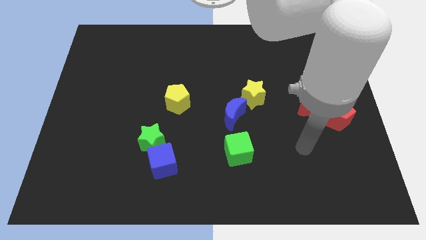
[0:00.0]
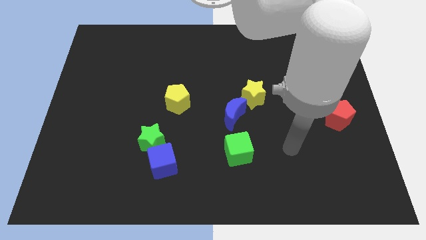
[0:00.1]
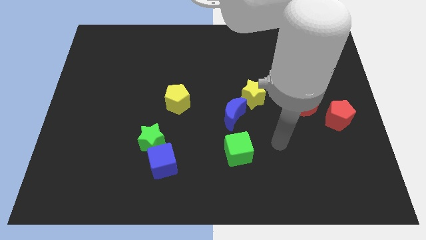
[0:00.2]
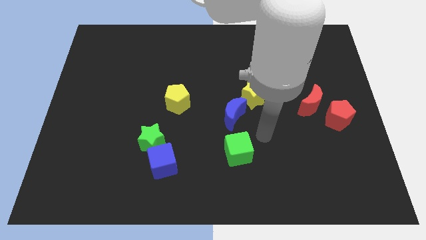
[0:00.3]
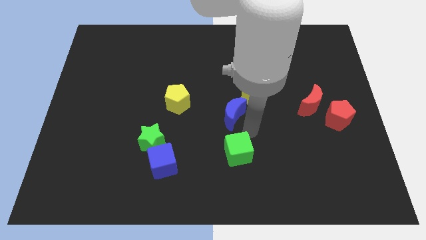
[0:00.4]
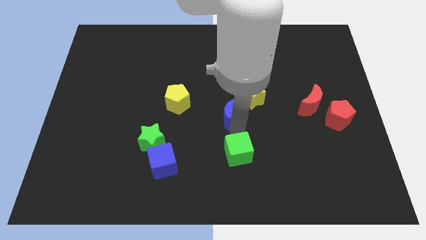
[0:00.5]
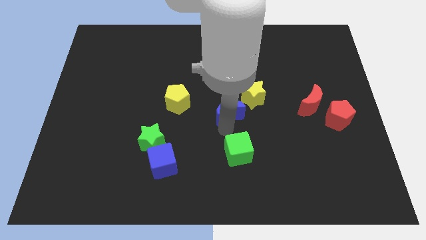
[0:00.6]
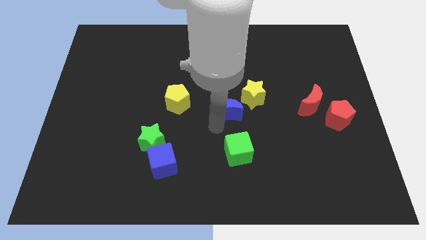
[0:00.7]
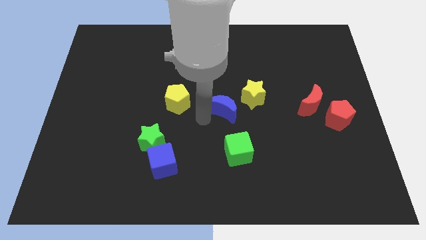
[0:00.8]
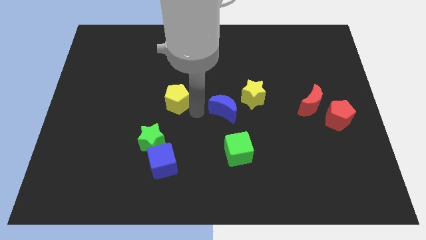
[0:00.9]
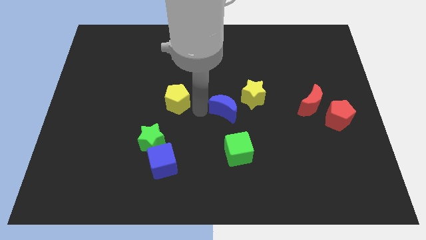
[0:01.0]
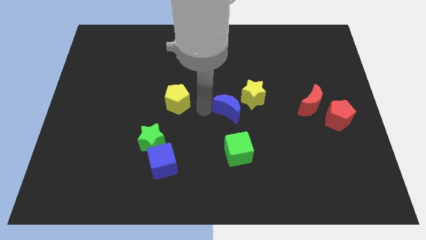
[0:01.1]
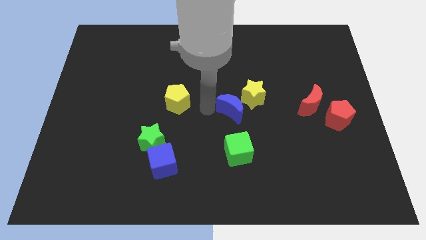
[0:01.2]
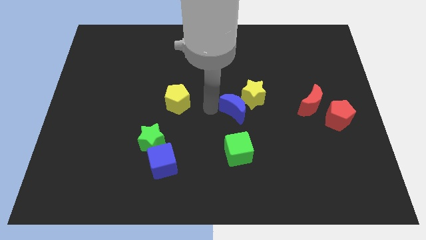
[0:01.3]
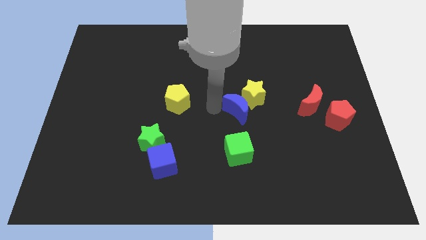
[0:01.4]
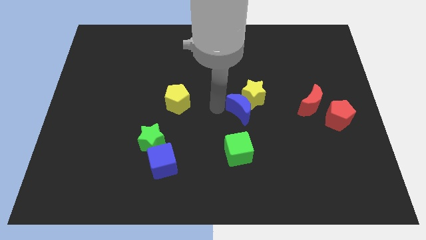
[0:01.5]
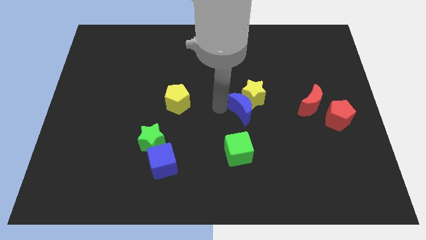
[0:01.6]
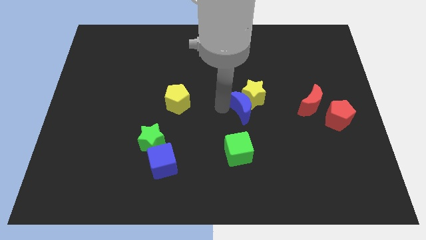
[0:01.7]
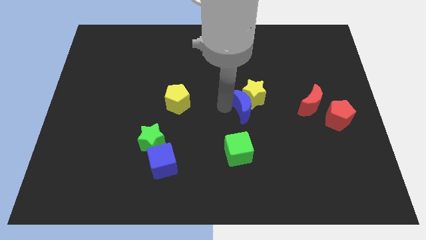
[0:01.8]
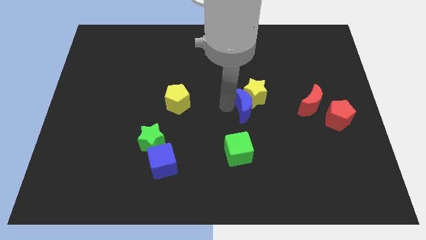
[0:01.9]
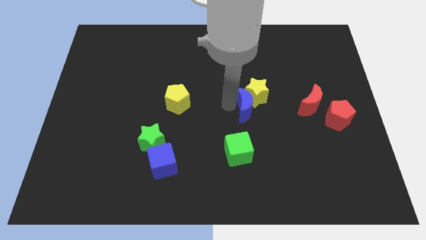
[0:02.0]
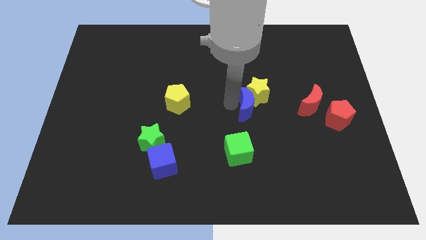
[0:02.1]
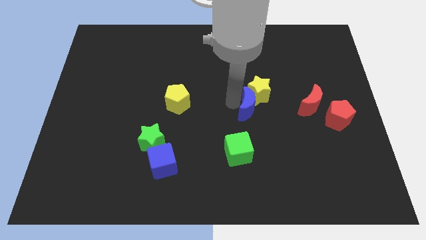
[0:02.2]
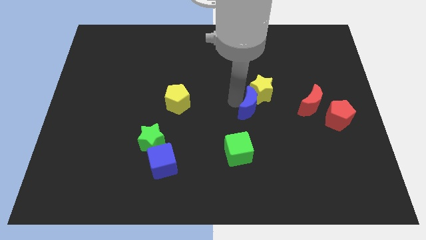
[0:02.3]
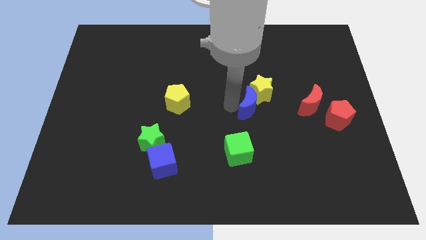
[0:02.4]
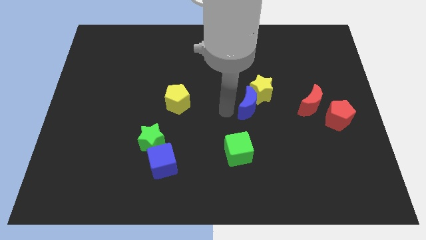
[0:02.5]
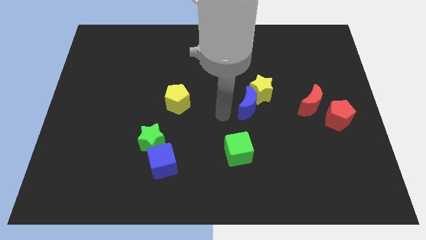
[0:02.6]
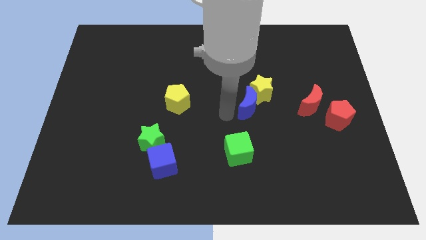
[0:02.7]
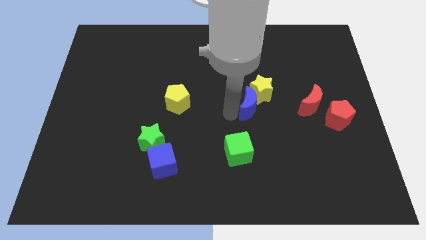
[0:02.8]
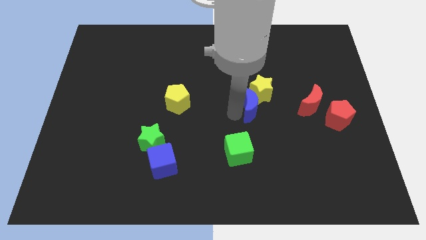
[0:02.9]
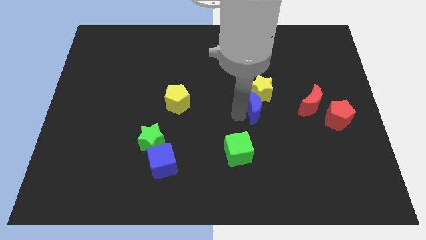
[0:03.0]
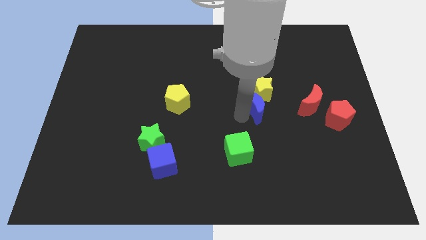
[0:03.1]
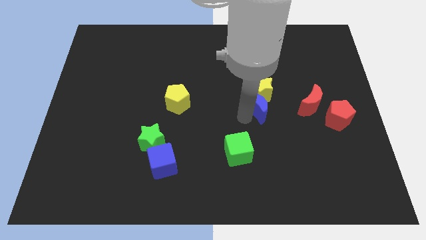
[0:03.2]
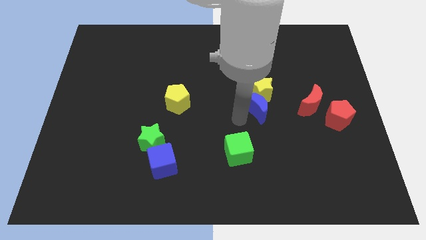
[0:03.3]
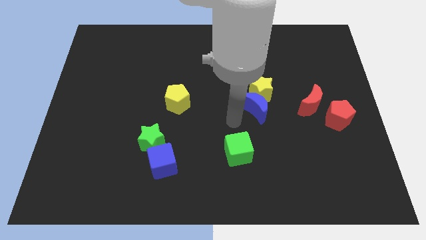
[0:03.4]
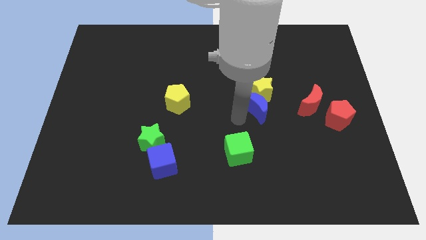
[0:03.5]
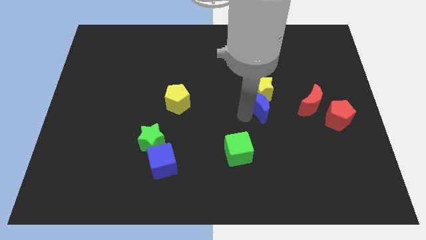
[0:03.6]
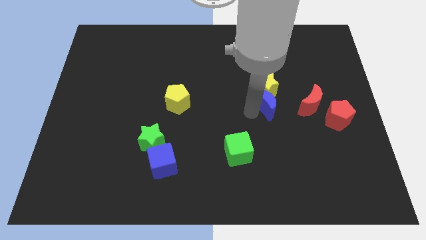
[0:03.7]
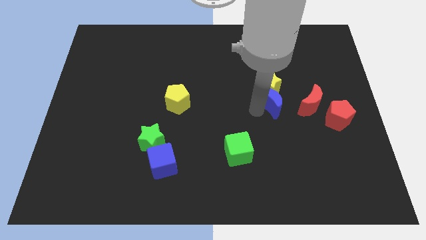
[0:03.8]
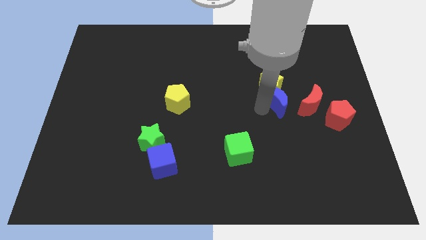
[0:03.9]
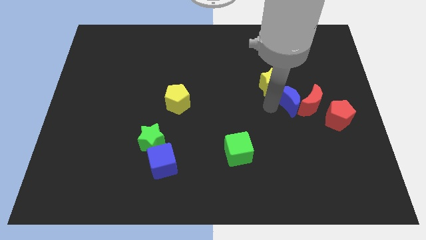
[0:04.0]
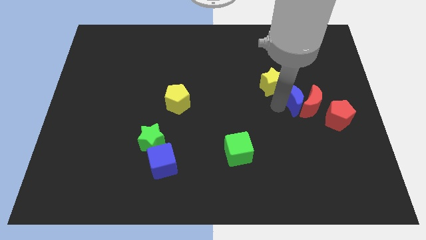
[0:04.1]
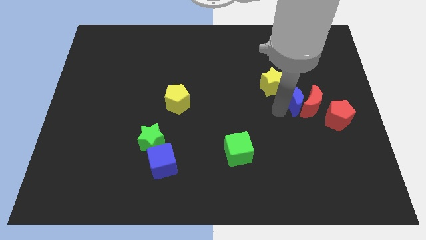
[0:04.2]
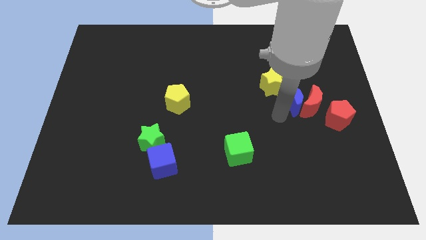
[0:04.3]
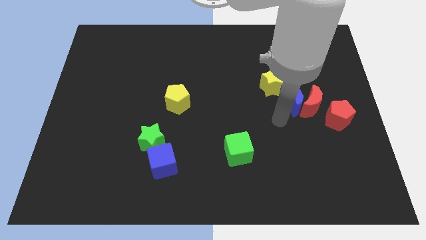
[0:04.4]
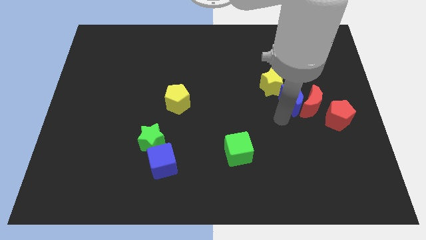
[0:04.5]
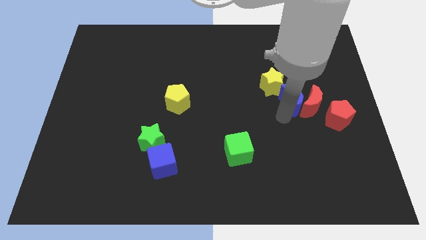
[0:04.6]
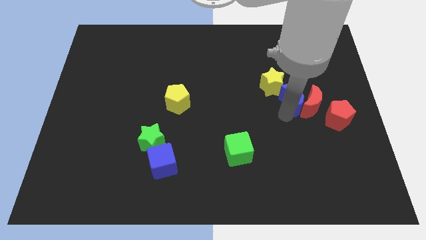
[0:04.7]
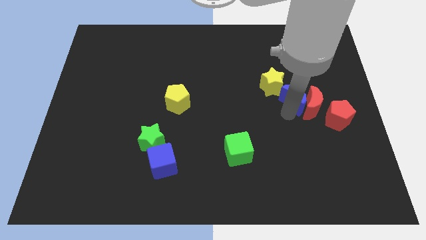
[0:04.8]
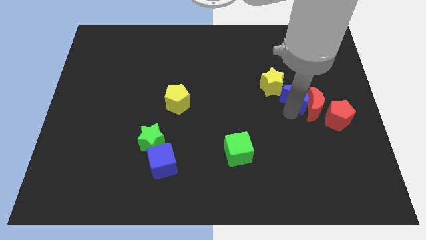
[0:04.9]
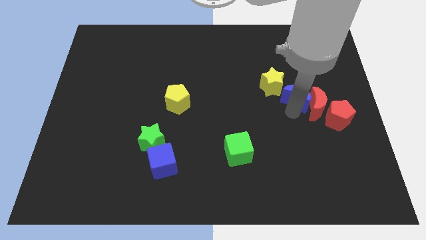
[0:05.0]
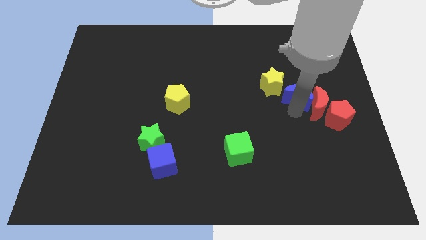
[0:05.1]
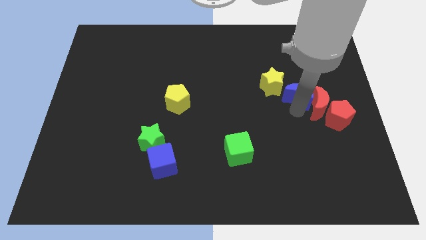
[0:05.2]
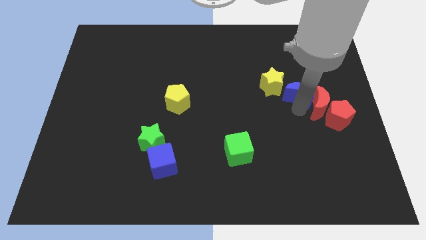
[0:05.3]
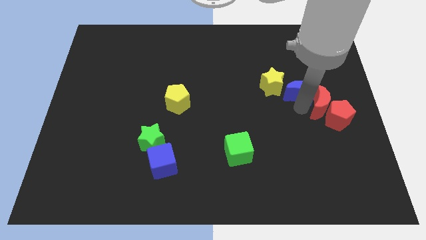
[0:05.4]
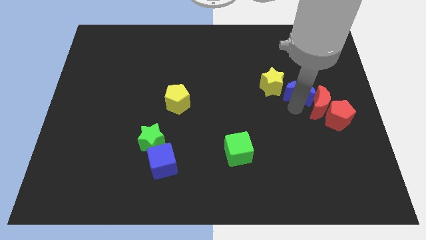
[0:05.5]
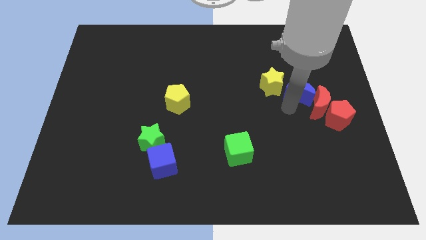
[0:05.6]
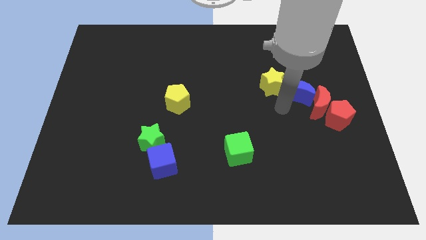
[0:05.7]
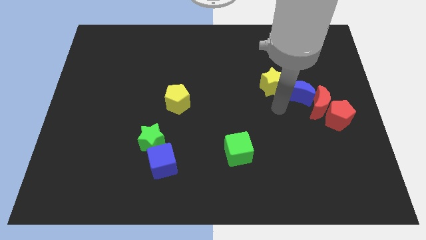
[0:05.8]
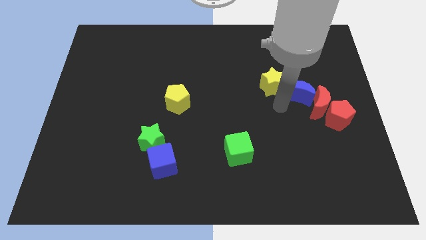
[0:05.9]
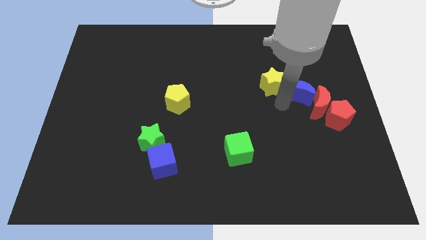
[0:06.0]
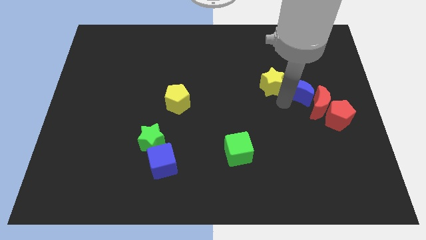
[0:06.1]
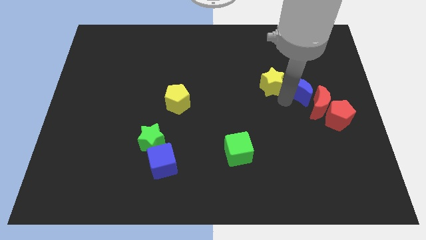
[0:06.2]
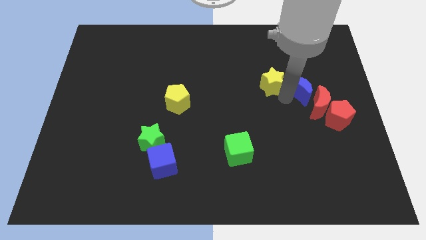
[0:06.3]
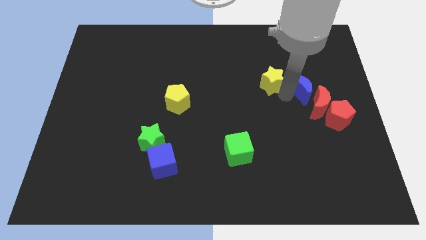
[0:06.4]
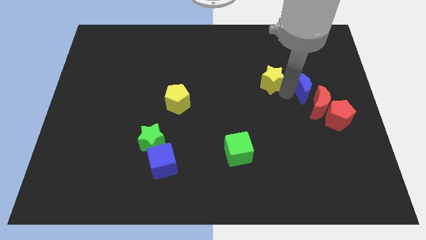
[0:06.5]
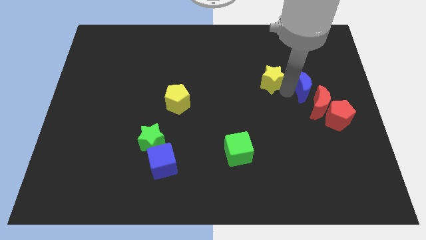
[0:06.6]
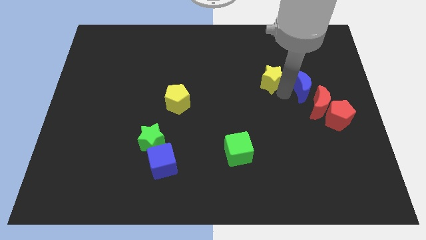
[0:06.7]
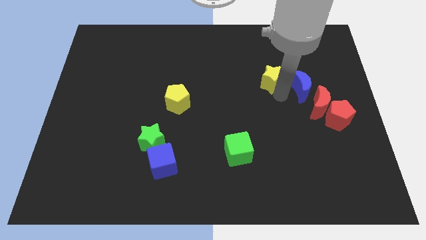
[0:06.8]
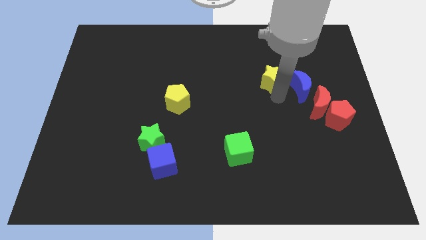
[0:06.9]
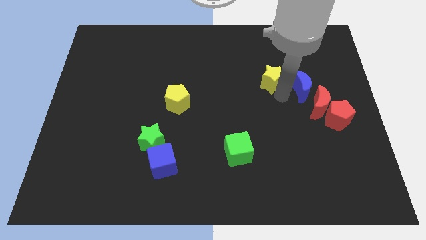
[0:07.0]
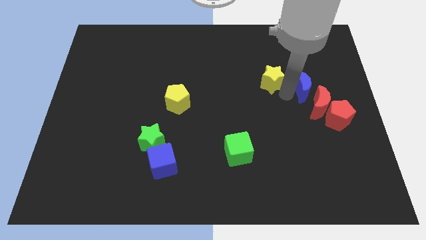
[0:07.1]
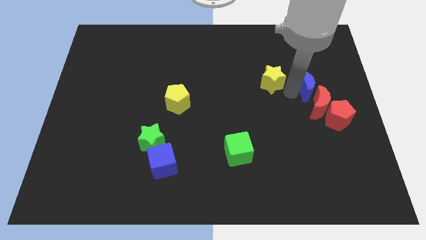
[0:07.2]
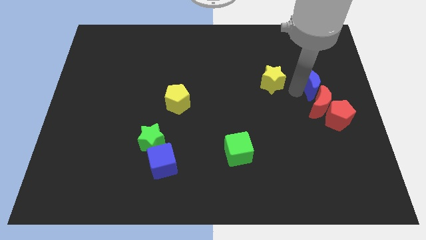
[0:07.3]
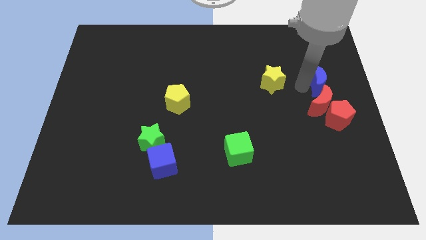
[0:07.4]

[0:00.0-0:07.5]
slide the blue moon to the center right

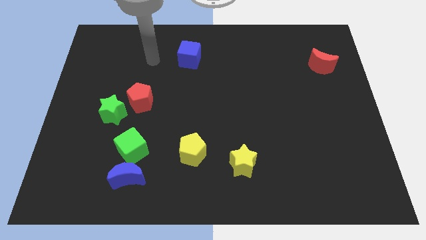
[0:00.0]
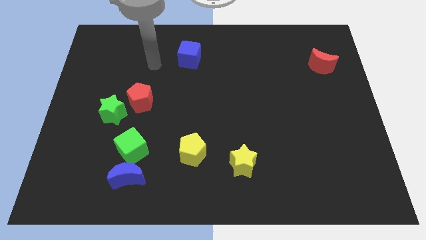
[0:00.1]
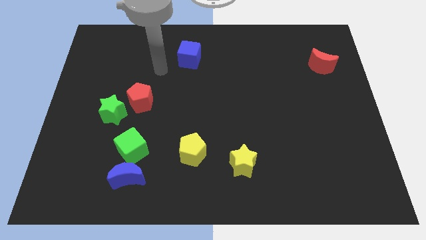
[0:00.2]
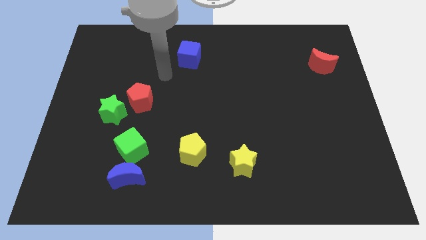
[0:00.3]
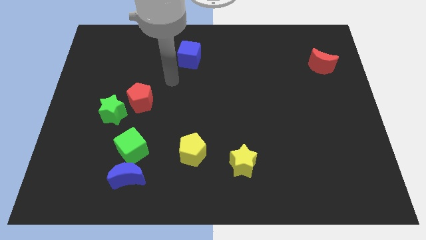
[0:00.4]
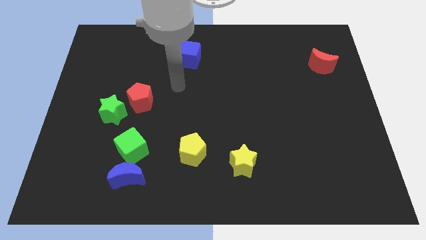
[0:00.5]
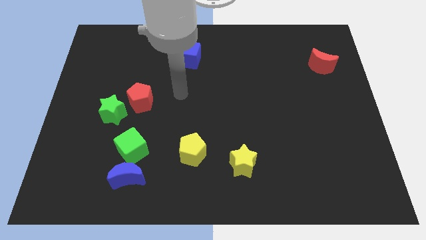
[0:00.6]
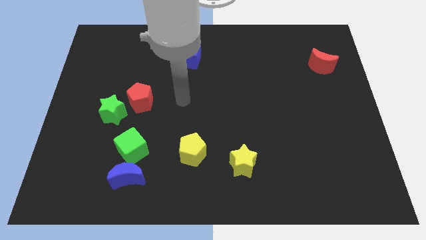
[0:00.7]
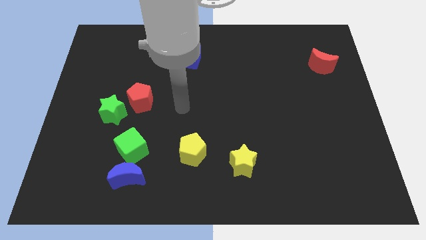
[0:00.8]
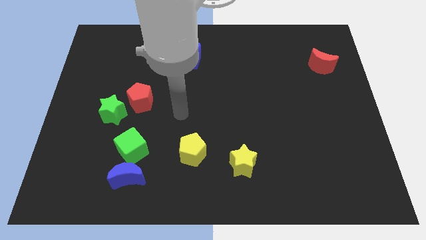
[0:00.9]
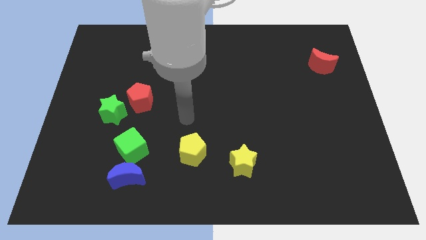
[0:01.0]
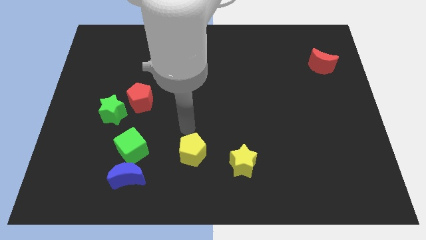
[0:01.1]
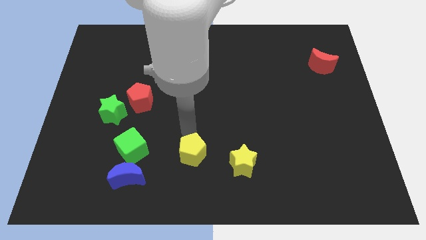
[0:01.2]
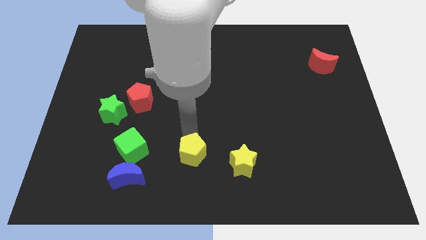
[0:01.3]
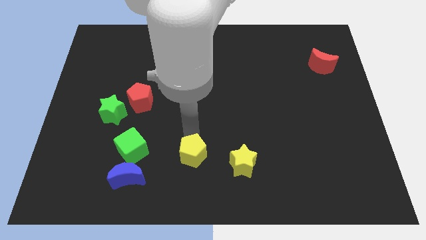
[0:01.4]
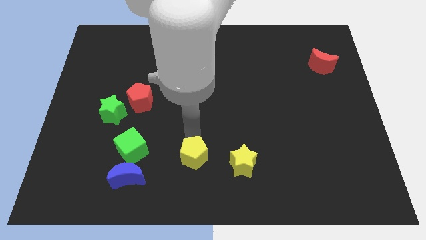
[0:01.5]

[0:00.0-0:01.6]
push the yellow pentagon to the bottom
